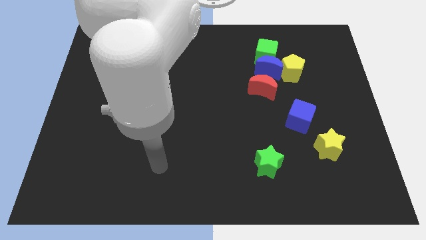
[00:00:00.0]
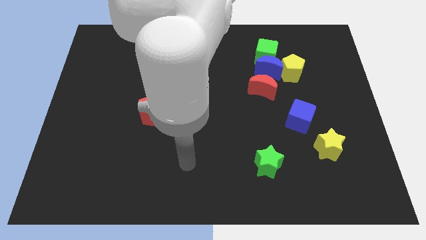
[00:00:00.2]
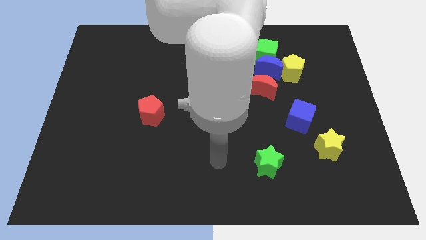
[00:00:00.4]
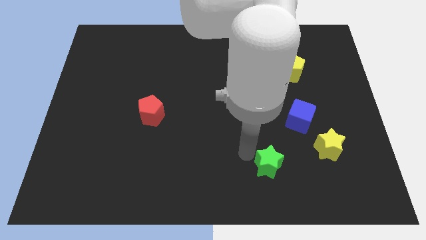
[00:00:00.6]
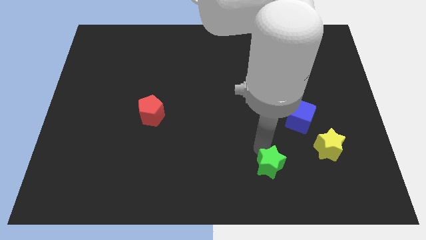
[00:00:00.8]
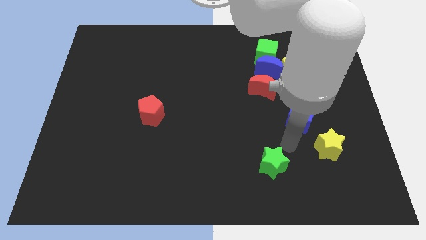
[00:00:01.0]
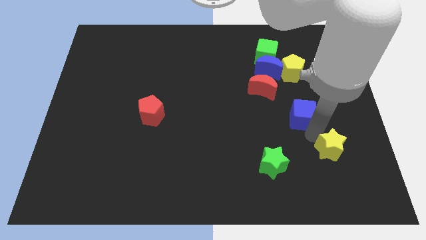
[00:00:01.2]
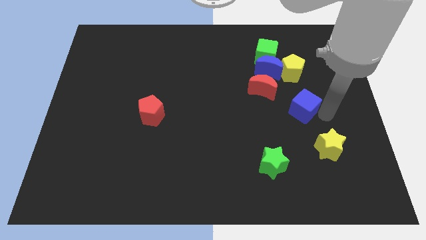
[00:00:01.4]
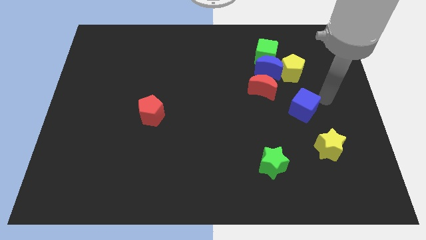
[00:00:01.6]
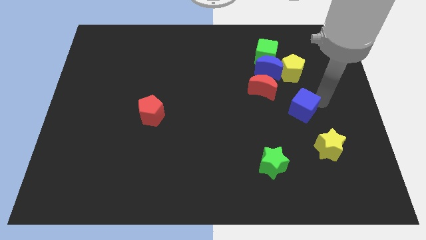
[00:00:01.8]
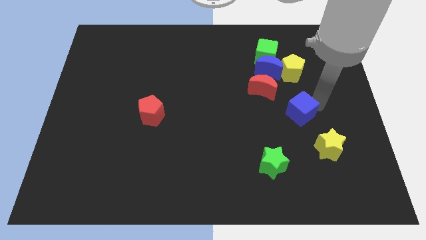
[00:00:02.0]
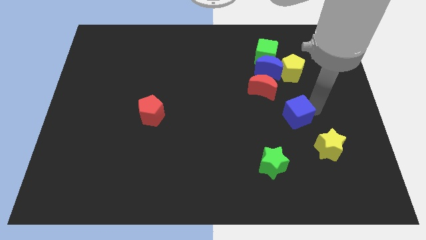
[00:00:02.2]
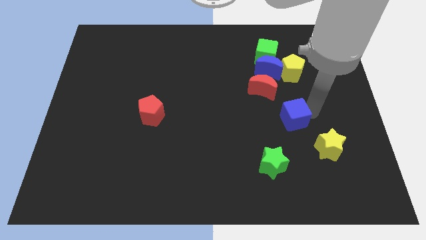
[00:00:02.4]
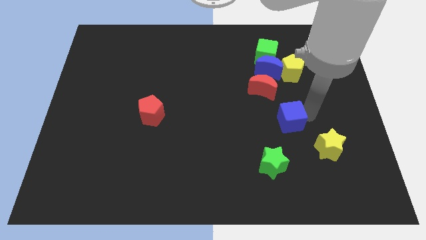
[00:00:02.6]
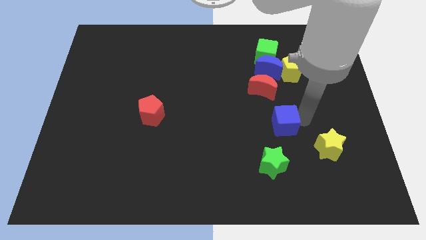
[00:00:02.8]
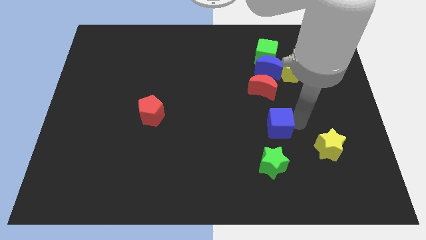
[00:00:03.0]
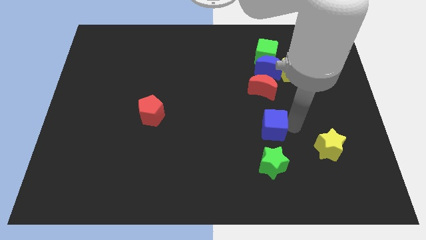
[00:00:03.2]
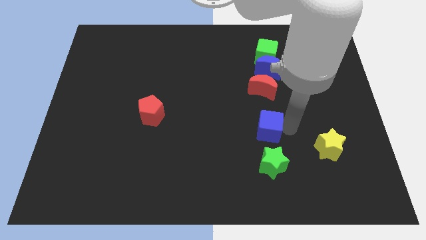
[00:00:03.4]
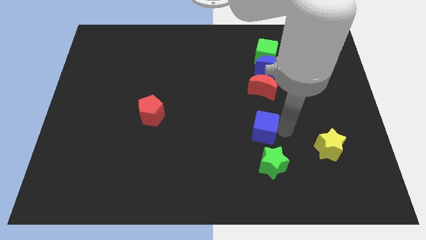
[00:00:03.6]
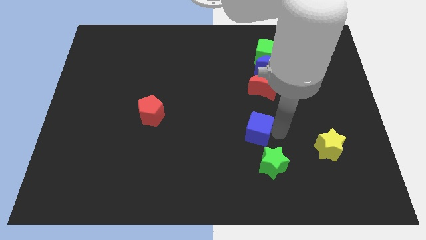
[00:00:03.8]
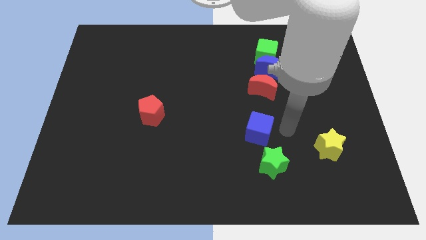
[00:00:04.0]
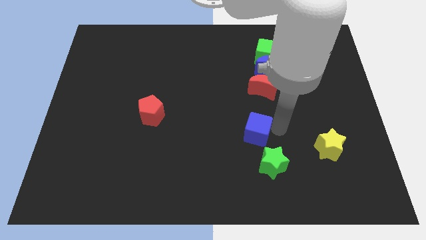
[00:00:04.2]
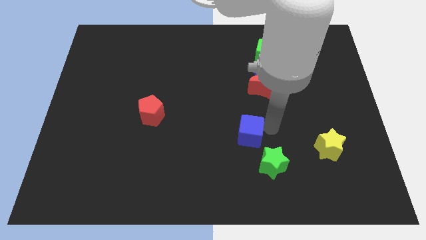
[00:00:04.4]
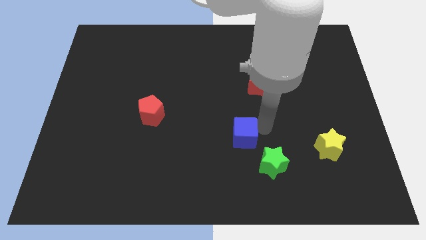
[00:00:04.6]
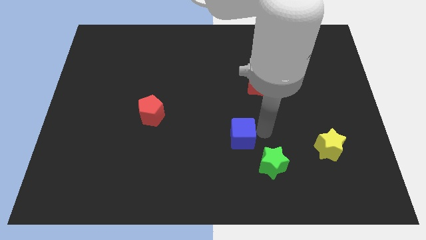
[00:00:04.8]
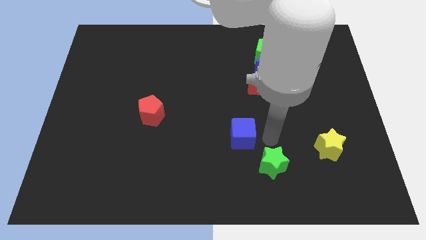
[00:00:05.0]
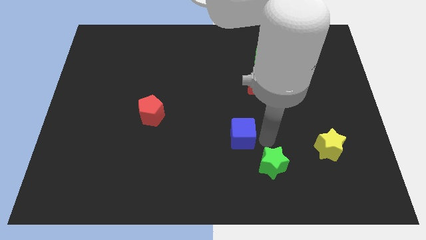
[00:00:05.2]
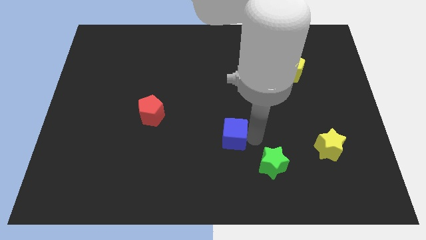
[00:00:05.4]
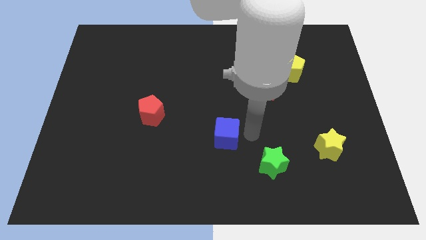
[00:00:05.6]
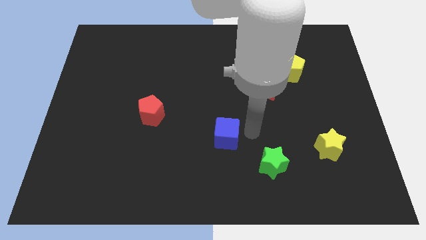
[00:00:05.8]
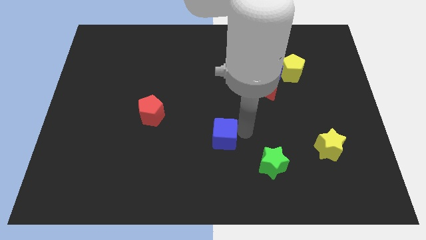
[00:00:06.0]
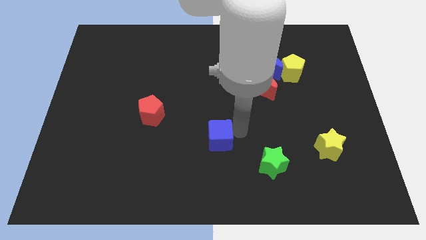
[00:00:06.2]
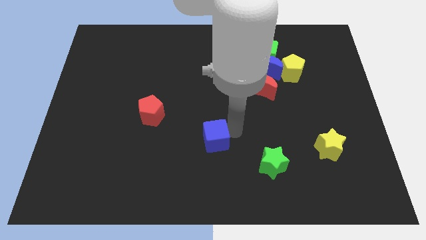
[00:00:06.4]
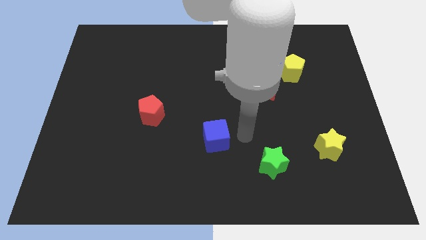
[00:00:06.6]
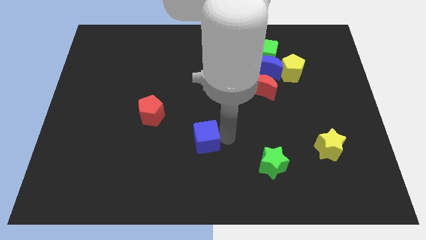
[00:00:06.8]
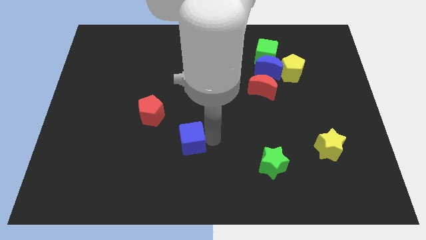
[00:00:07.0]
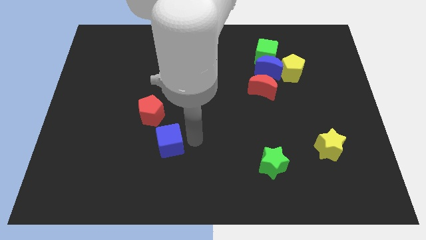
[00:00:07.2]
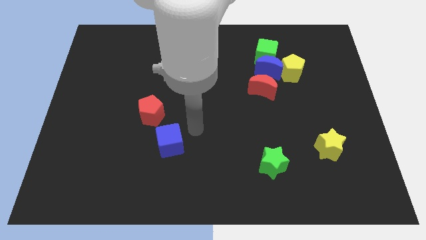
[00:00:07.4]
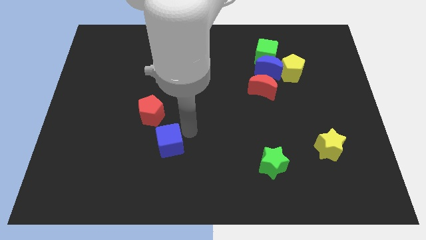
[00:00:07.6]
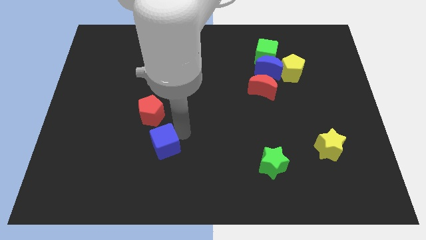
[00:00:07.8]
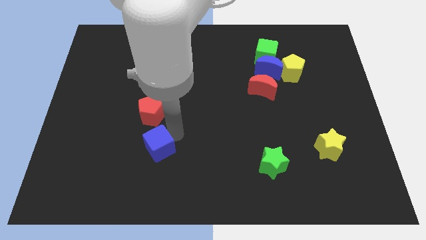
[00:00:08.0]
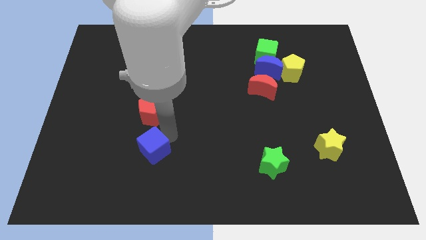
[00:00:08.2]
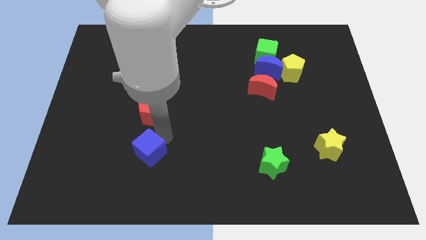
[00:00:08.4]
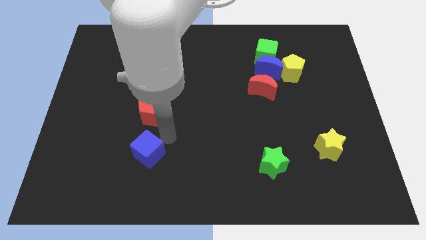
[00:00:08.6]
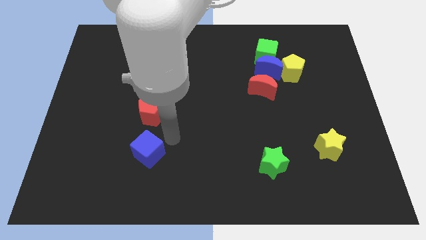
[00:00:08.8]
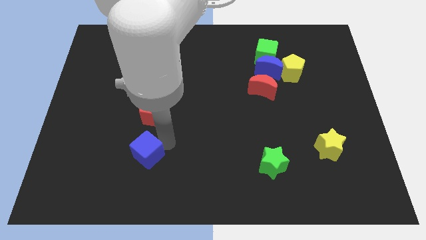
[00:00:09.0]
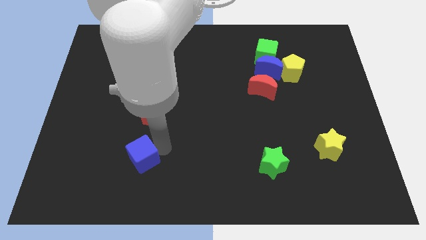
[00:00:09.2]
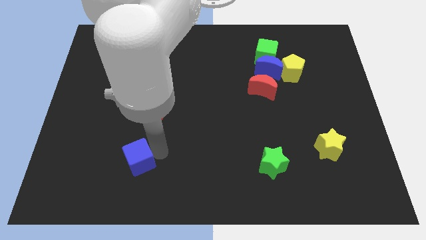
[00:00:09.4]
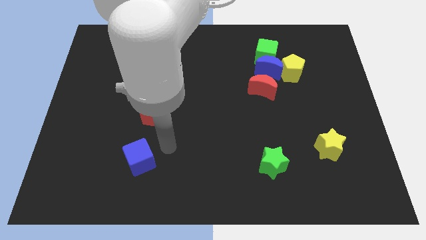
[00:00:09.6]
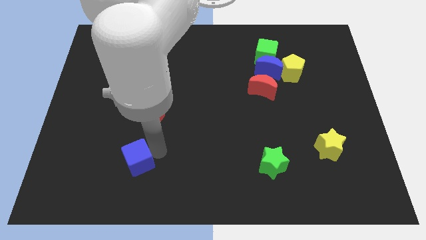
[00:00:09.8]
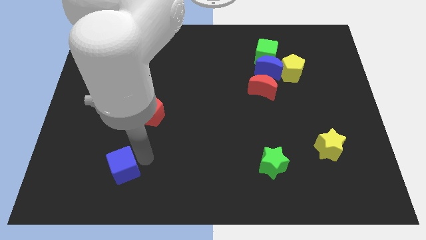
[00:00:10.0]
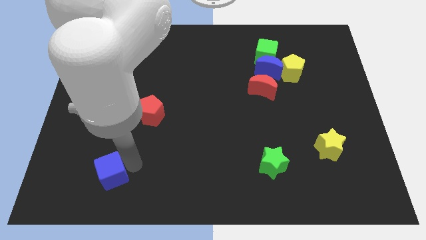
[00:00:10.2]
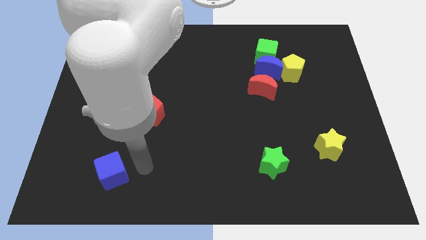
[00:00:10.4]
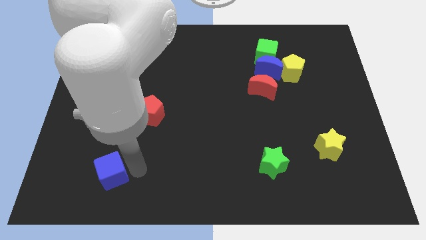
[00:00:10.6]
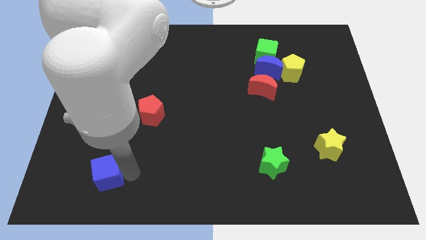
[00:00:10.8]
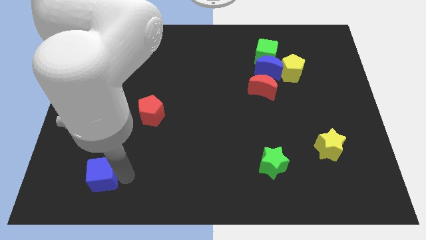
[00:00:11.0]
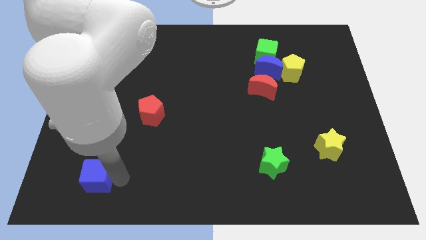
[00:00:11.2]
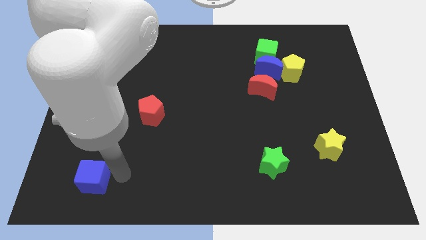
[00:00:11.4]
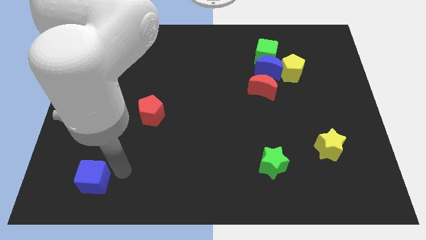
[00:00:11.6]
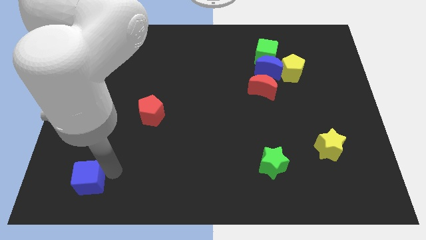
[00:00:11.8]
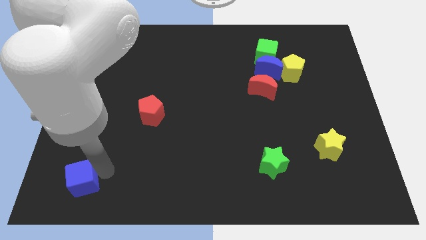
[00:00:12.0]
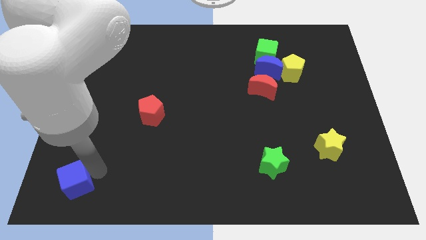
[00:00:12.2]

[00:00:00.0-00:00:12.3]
push the blue cube to the lower left corner

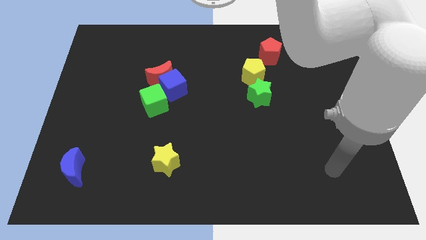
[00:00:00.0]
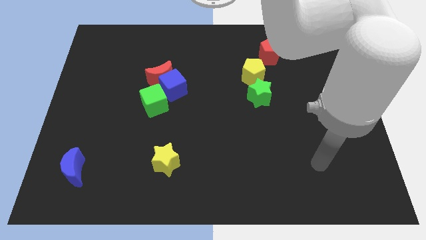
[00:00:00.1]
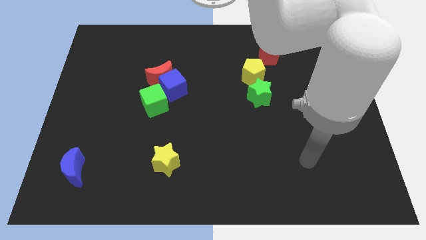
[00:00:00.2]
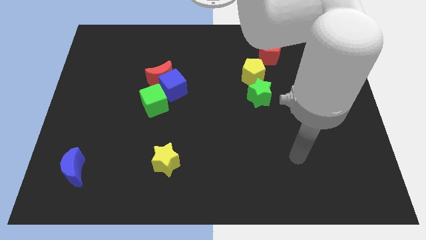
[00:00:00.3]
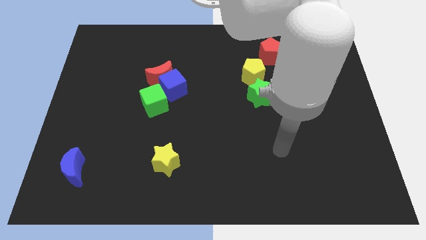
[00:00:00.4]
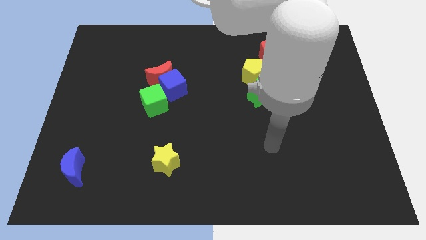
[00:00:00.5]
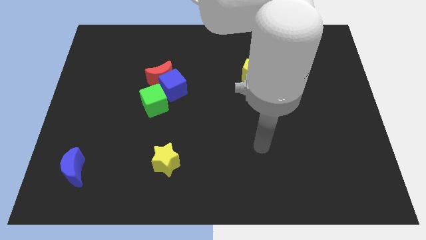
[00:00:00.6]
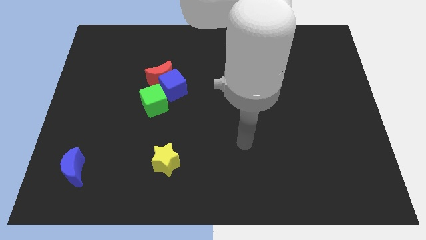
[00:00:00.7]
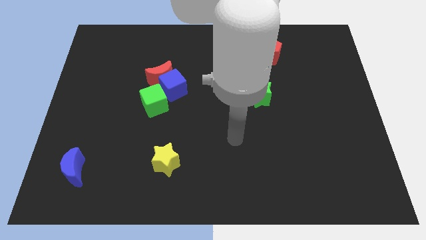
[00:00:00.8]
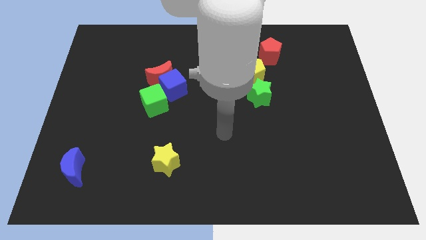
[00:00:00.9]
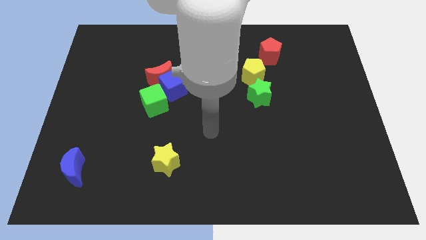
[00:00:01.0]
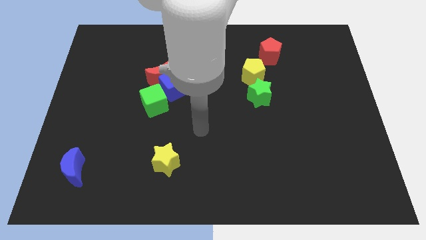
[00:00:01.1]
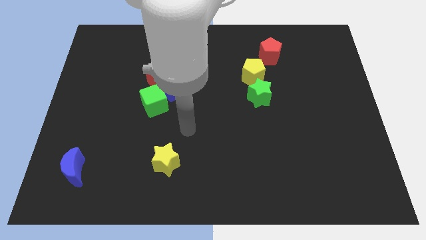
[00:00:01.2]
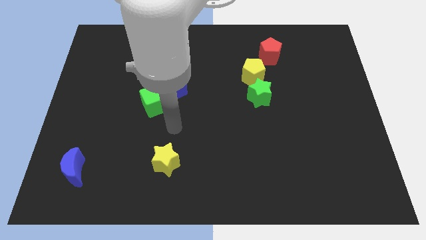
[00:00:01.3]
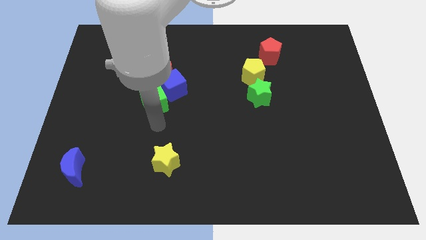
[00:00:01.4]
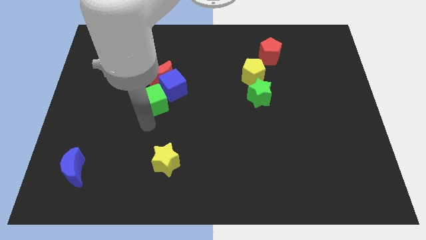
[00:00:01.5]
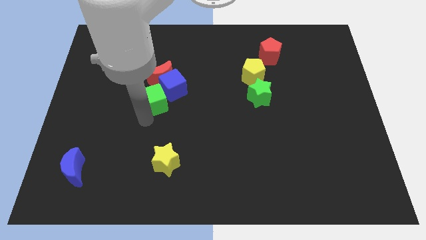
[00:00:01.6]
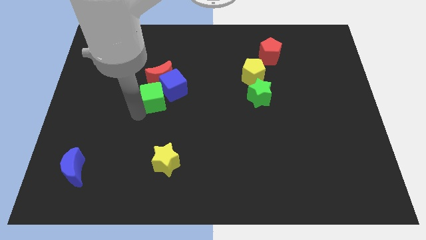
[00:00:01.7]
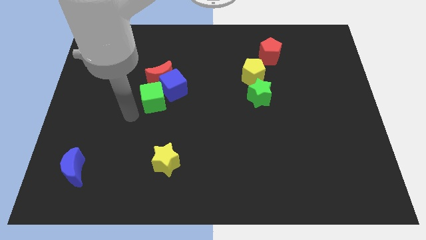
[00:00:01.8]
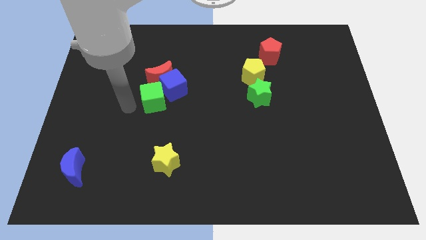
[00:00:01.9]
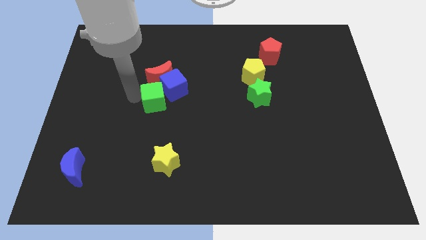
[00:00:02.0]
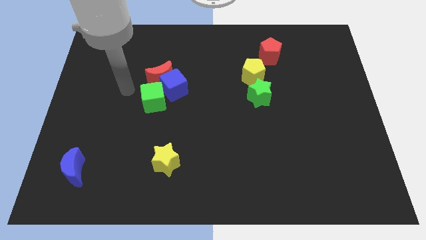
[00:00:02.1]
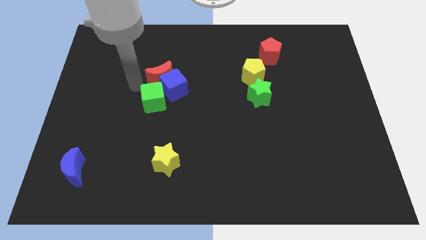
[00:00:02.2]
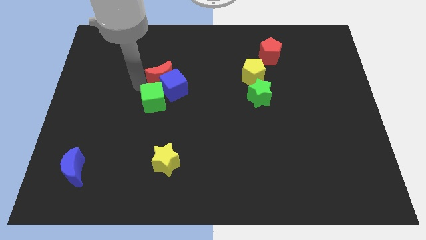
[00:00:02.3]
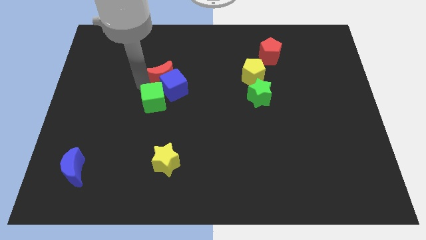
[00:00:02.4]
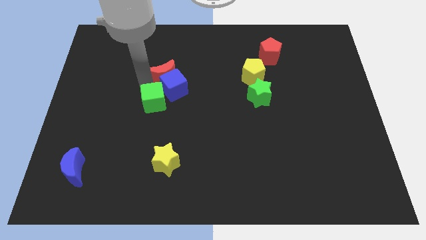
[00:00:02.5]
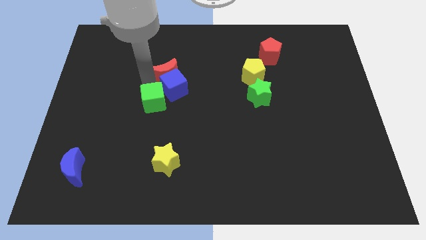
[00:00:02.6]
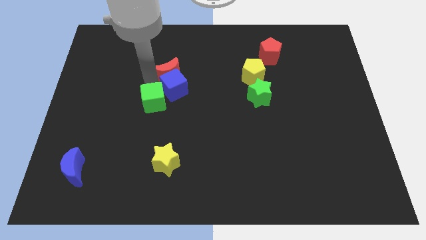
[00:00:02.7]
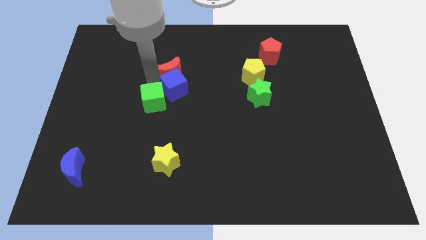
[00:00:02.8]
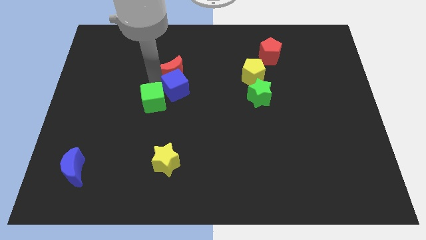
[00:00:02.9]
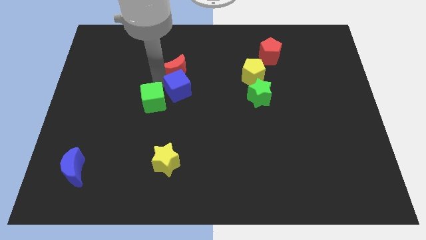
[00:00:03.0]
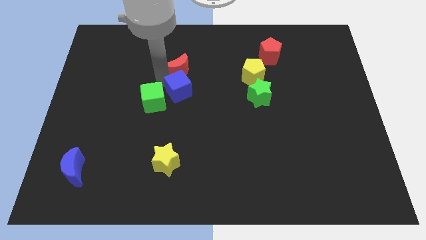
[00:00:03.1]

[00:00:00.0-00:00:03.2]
slide the red moon to the middle
